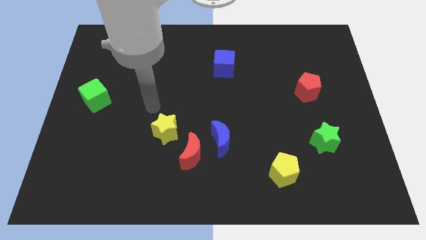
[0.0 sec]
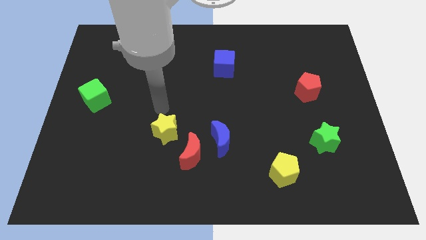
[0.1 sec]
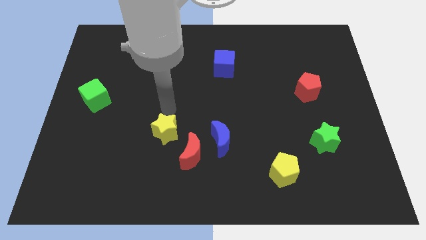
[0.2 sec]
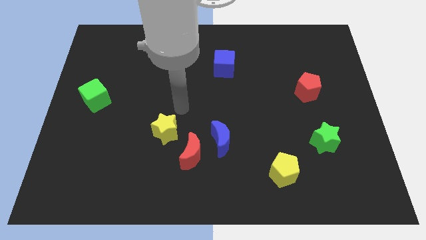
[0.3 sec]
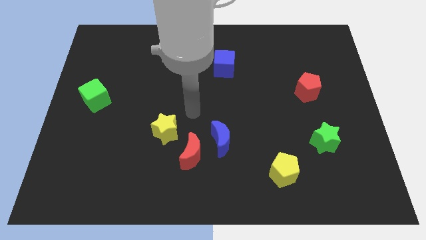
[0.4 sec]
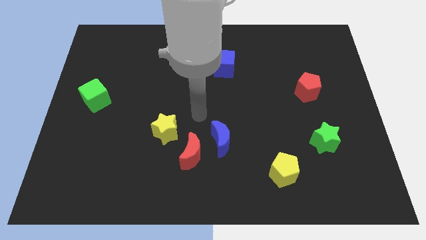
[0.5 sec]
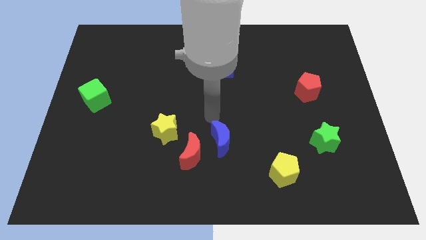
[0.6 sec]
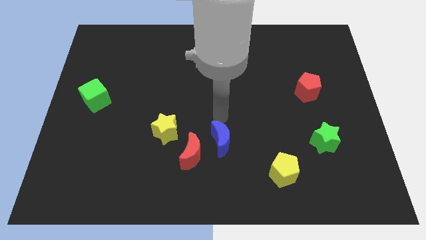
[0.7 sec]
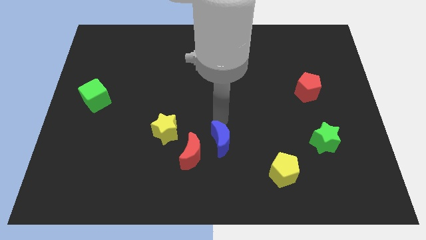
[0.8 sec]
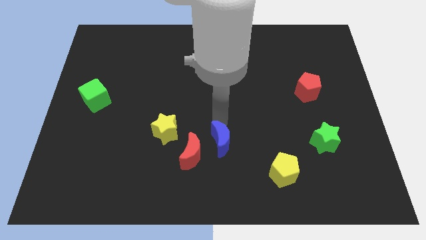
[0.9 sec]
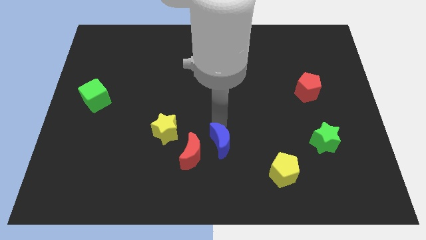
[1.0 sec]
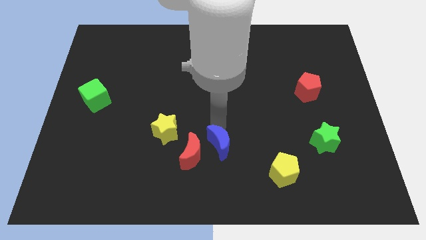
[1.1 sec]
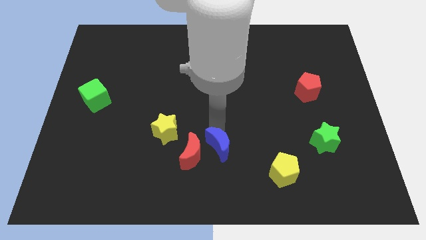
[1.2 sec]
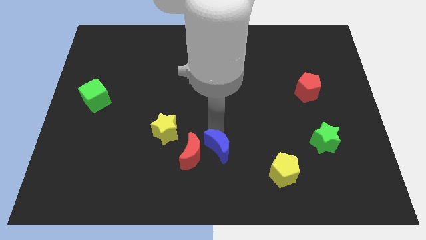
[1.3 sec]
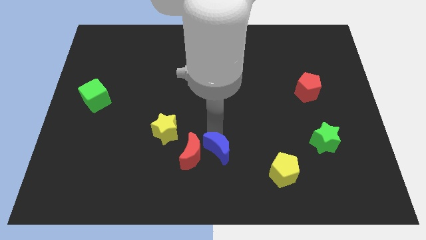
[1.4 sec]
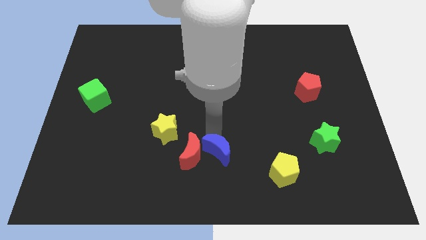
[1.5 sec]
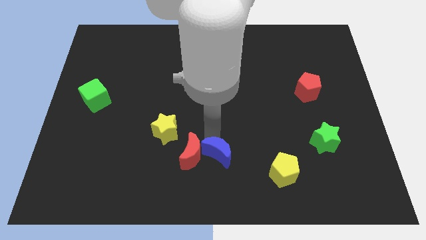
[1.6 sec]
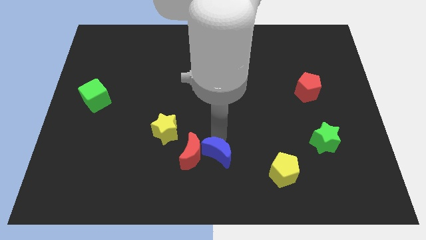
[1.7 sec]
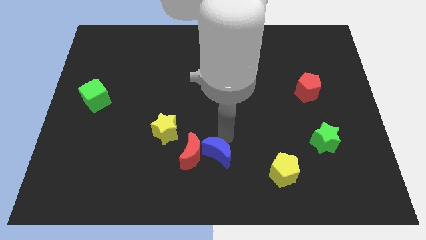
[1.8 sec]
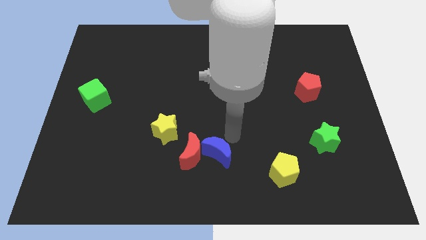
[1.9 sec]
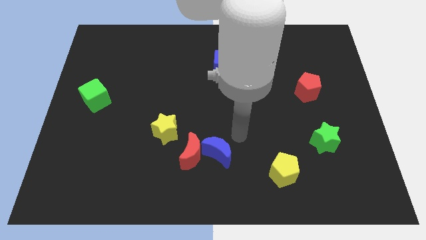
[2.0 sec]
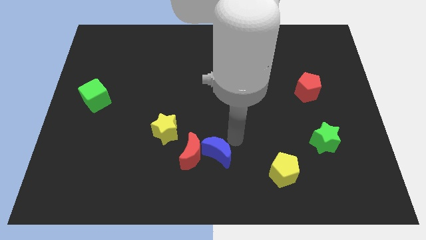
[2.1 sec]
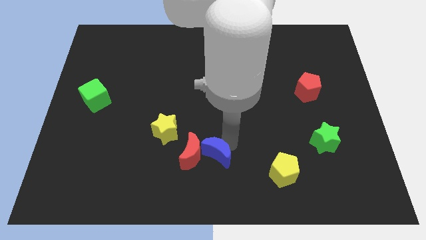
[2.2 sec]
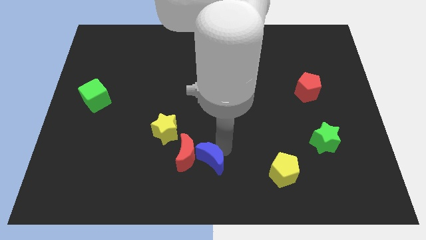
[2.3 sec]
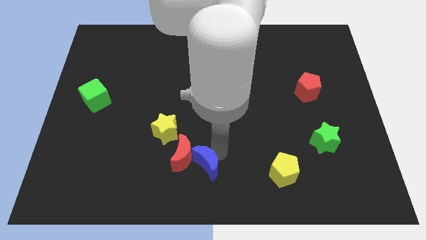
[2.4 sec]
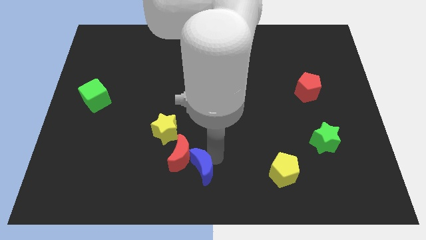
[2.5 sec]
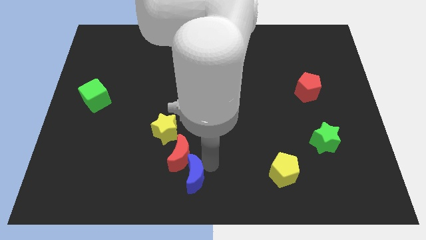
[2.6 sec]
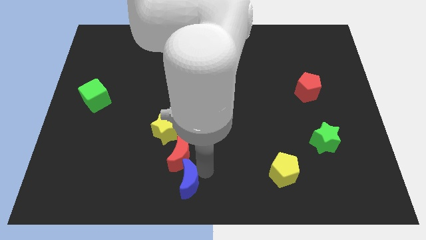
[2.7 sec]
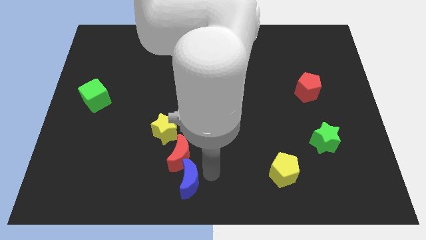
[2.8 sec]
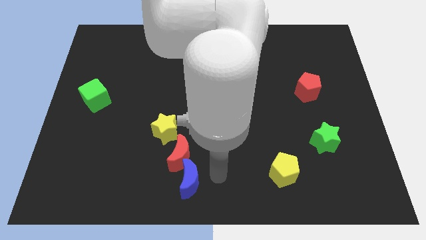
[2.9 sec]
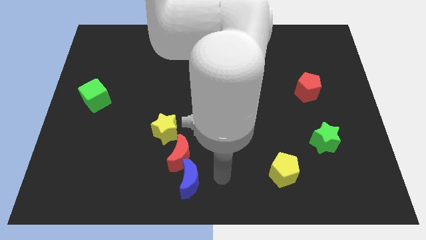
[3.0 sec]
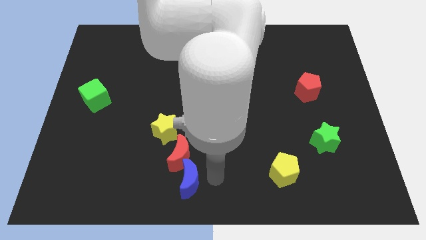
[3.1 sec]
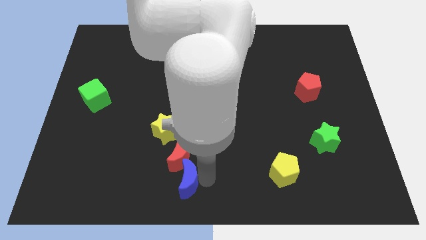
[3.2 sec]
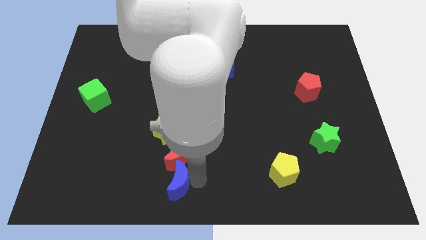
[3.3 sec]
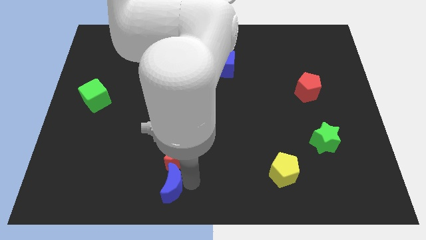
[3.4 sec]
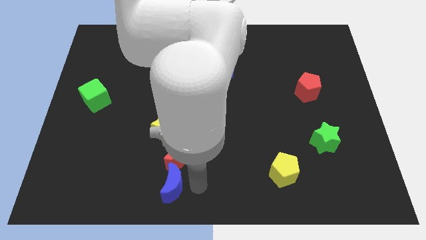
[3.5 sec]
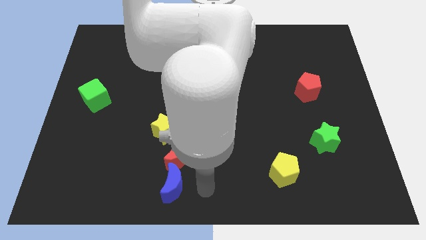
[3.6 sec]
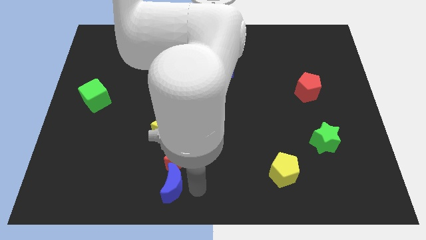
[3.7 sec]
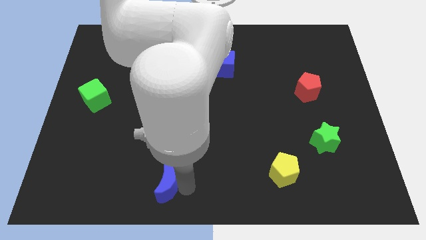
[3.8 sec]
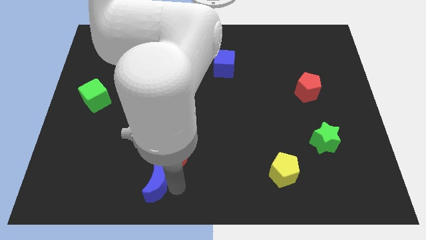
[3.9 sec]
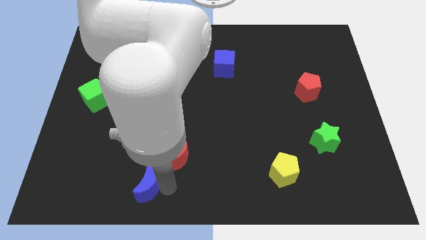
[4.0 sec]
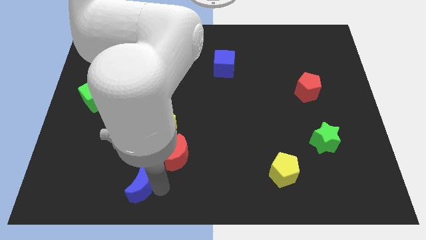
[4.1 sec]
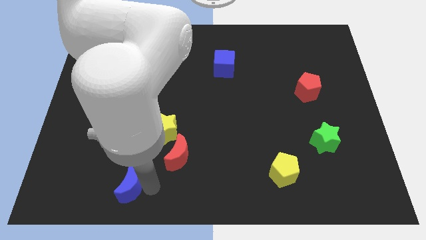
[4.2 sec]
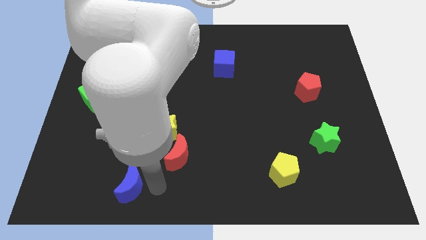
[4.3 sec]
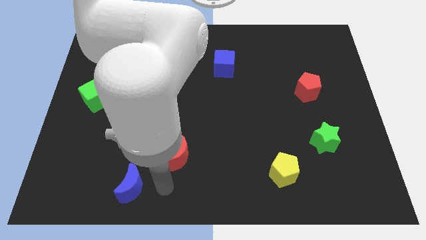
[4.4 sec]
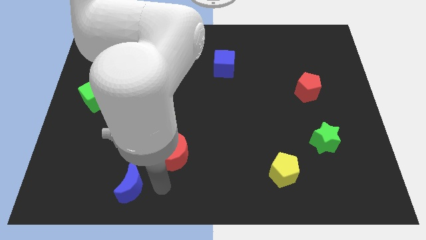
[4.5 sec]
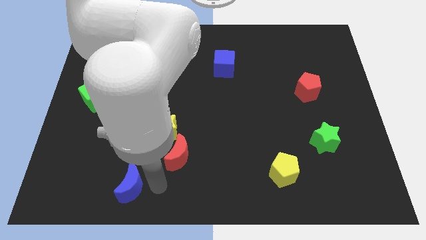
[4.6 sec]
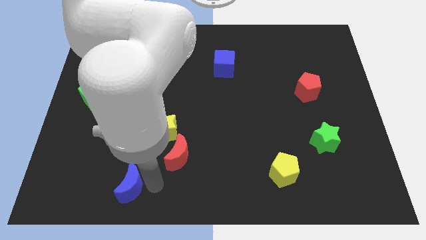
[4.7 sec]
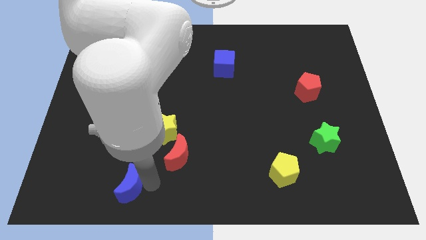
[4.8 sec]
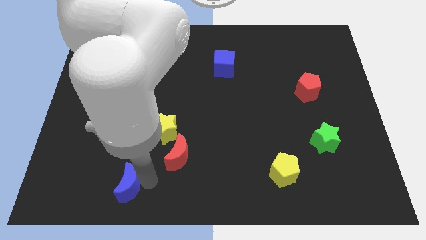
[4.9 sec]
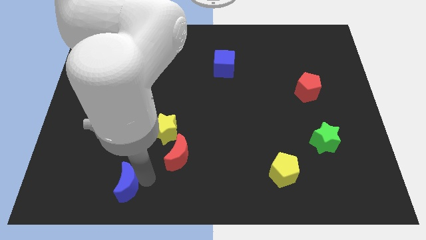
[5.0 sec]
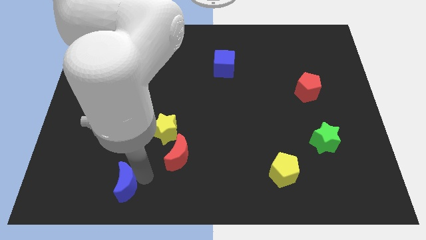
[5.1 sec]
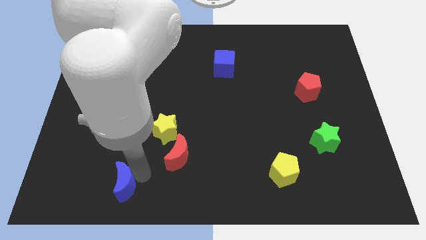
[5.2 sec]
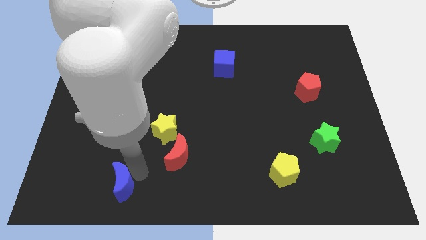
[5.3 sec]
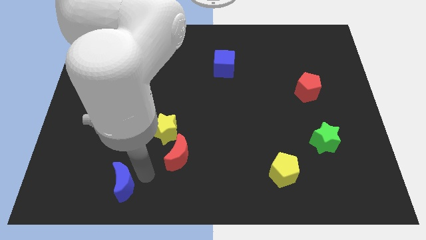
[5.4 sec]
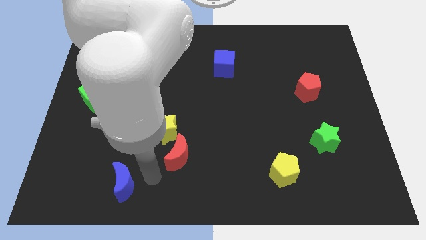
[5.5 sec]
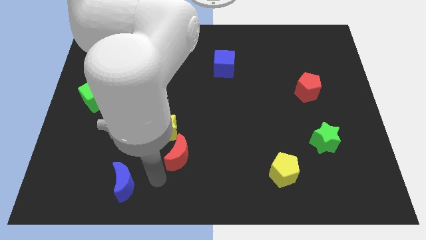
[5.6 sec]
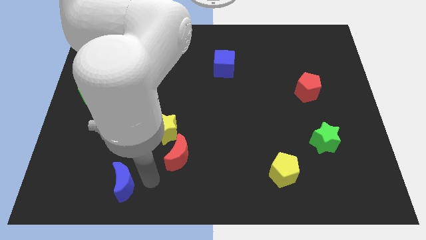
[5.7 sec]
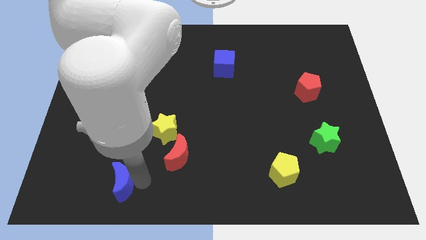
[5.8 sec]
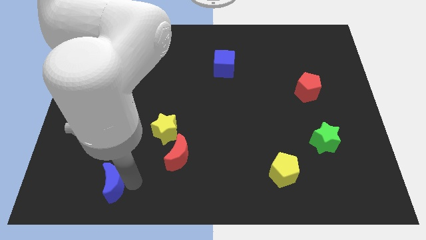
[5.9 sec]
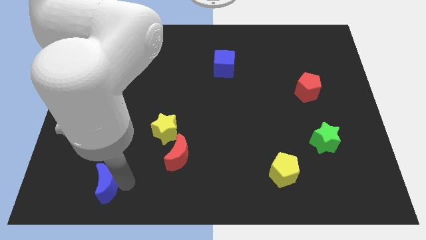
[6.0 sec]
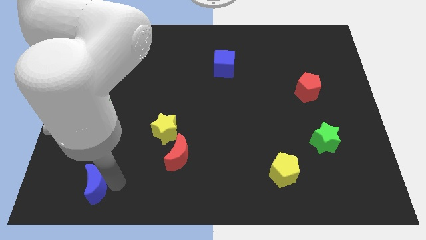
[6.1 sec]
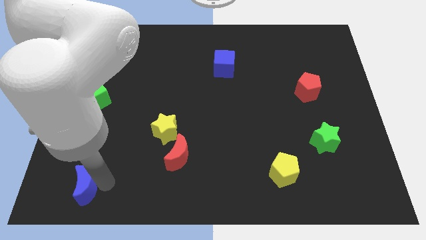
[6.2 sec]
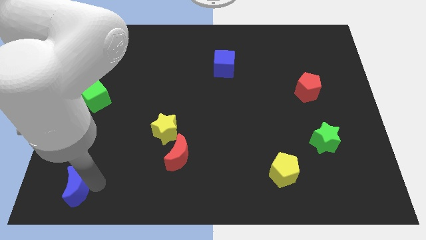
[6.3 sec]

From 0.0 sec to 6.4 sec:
put the blue moon to the bottom left
